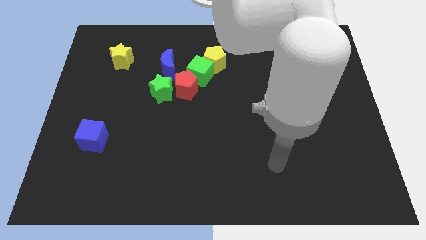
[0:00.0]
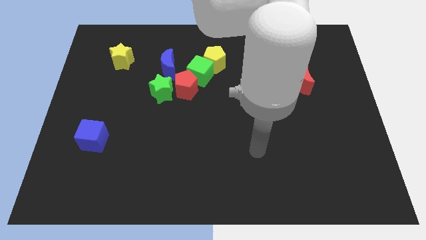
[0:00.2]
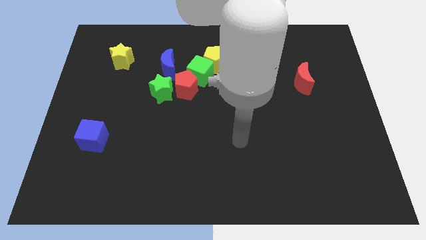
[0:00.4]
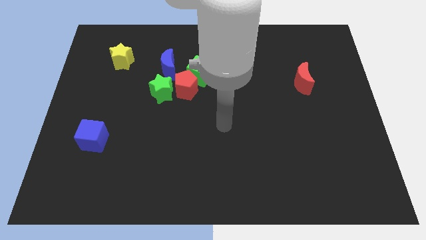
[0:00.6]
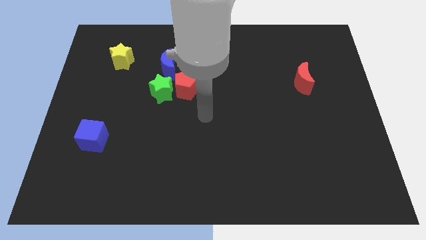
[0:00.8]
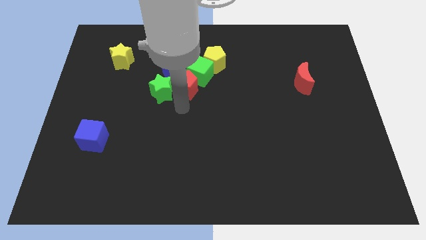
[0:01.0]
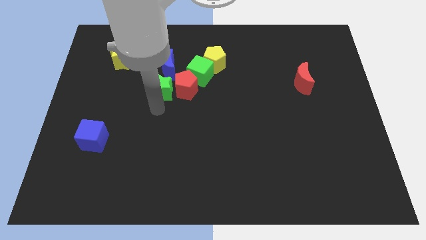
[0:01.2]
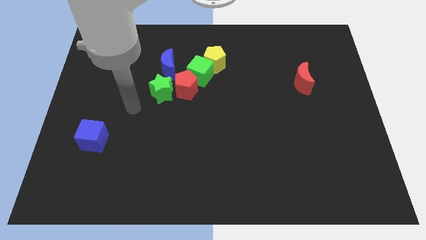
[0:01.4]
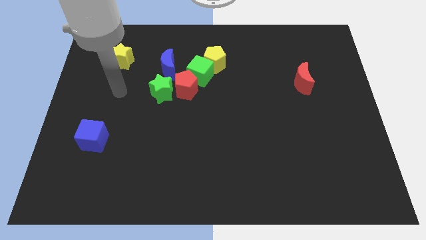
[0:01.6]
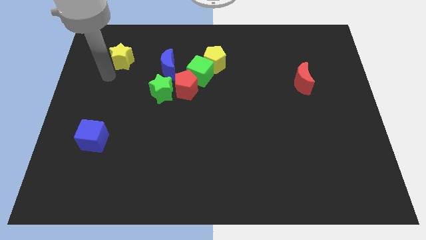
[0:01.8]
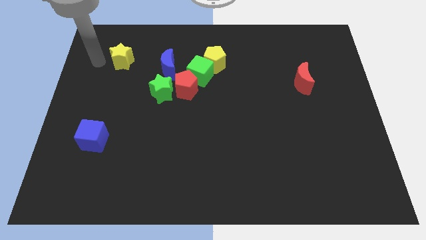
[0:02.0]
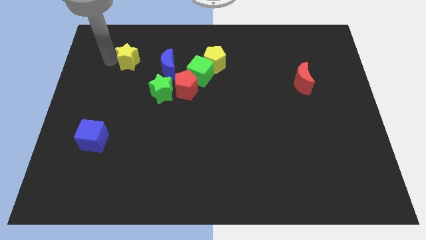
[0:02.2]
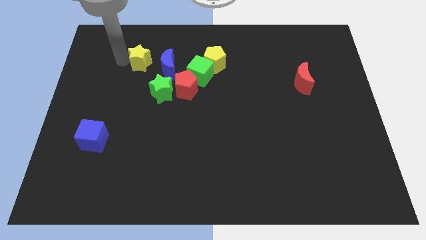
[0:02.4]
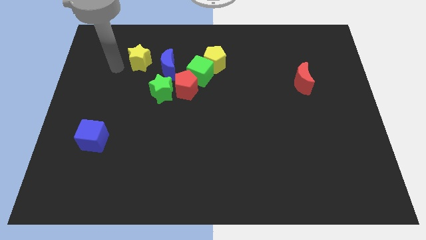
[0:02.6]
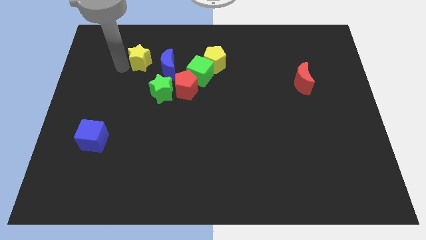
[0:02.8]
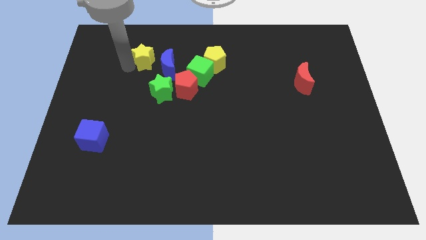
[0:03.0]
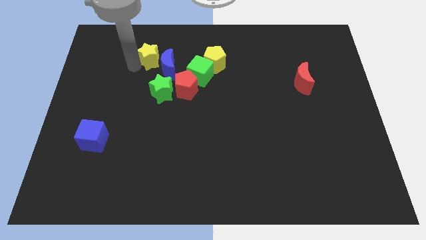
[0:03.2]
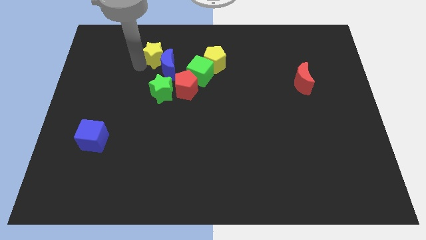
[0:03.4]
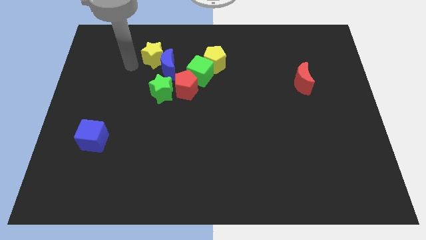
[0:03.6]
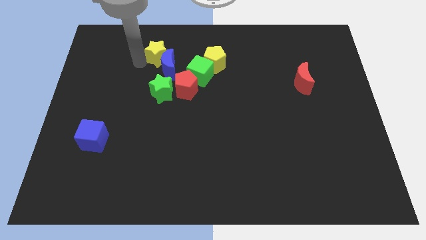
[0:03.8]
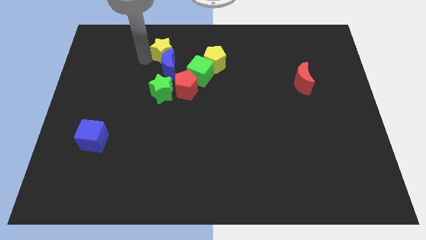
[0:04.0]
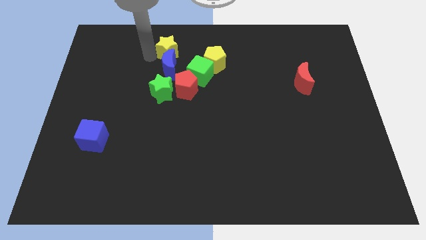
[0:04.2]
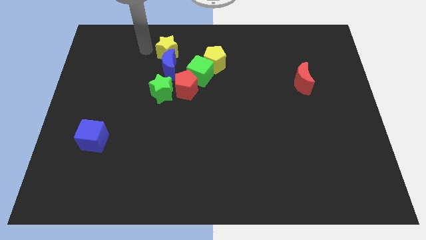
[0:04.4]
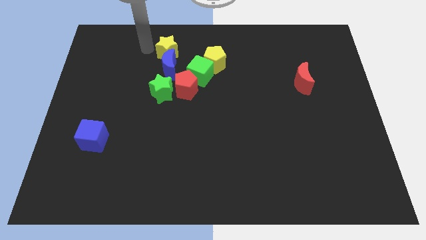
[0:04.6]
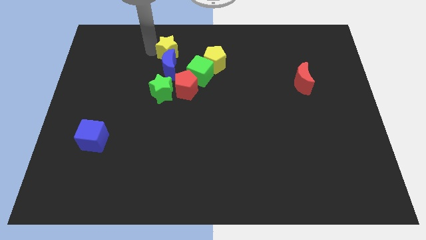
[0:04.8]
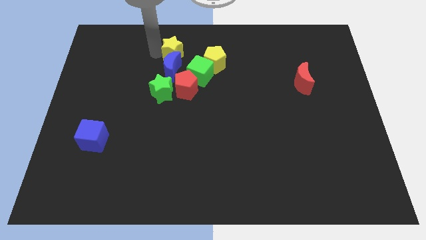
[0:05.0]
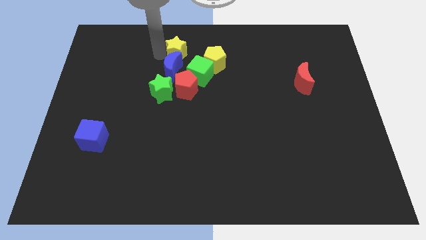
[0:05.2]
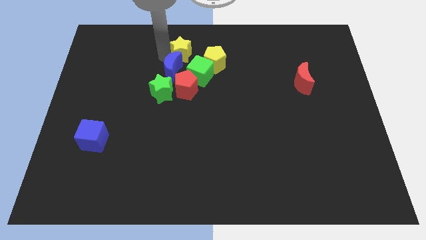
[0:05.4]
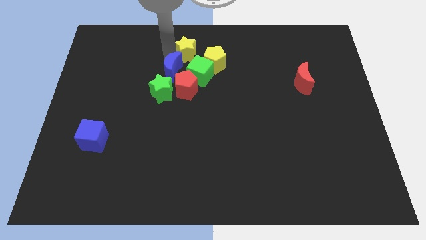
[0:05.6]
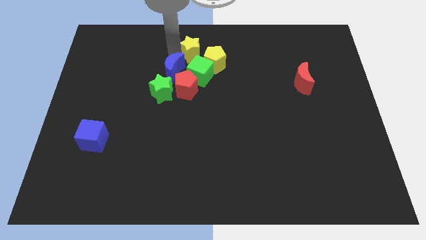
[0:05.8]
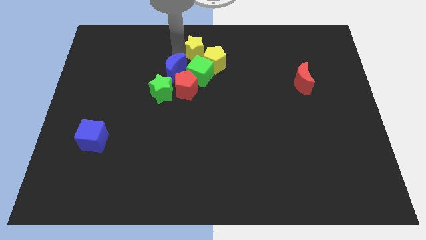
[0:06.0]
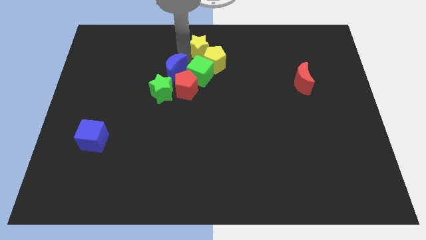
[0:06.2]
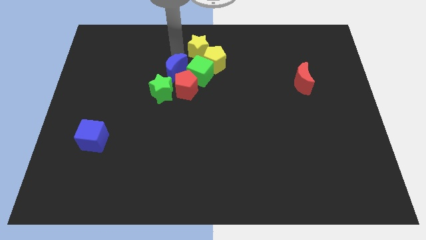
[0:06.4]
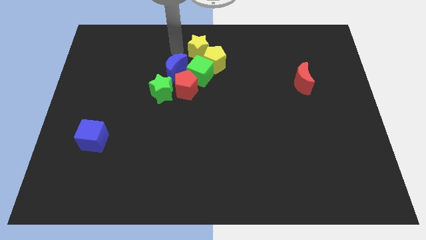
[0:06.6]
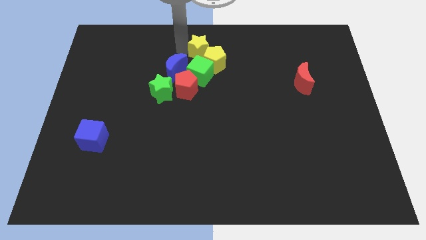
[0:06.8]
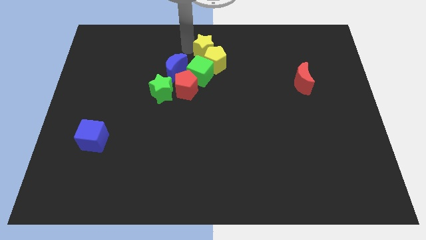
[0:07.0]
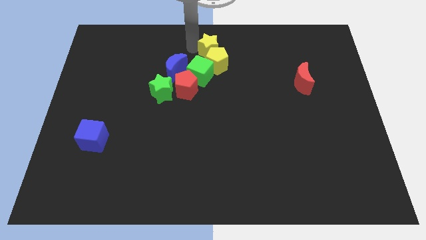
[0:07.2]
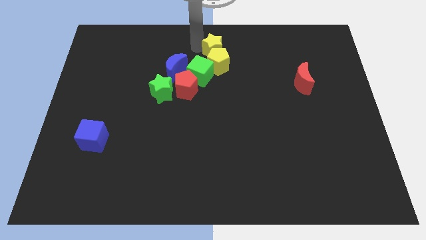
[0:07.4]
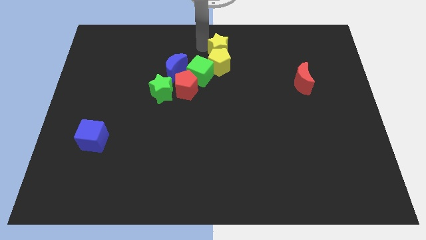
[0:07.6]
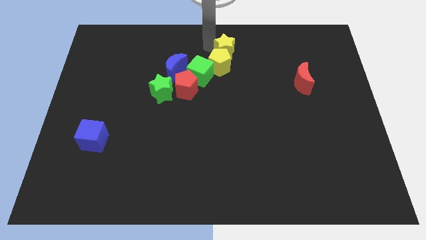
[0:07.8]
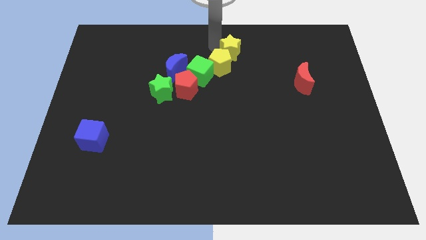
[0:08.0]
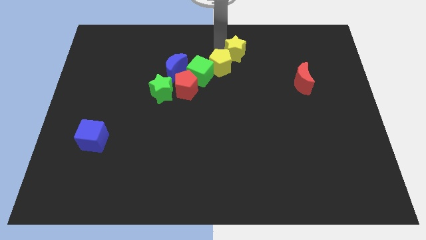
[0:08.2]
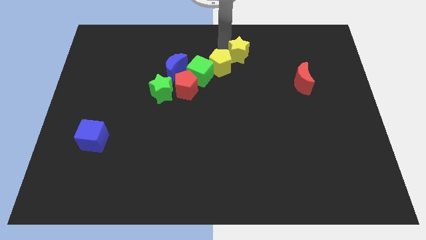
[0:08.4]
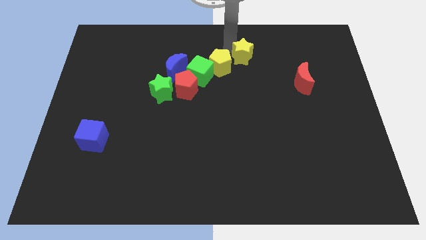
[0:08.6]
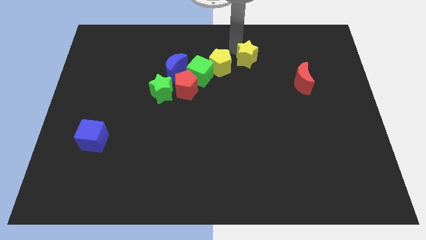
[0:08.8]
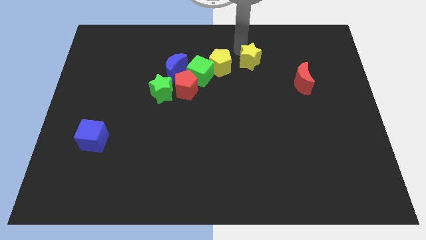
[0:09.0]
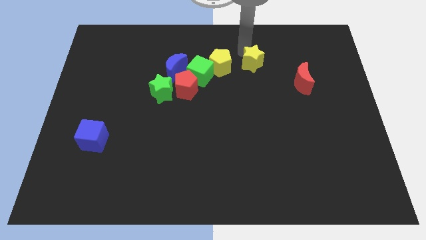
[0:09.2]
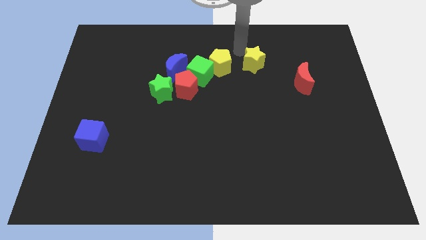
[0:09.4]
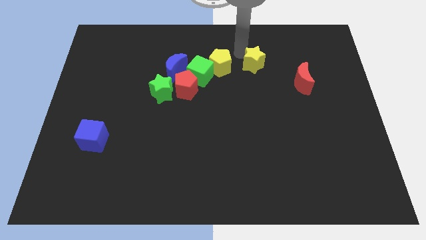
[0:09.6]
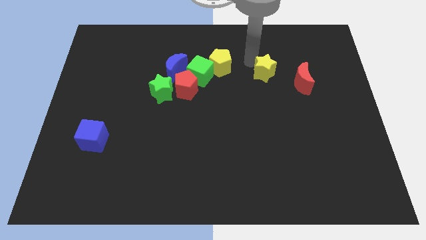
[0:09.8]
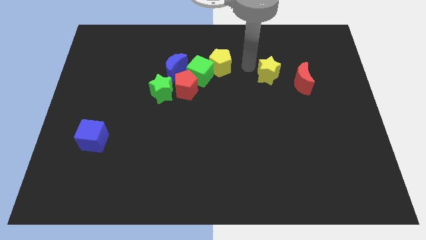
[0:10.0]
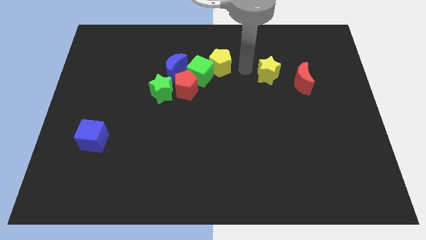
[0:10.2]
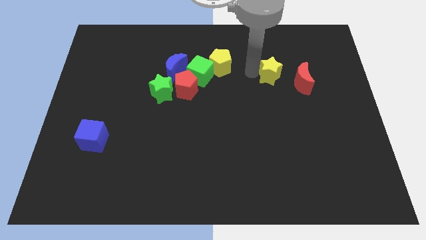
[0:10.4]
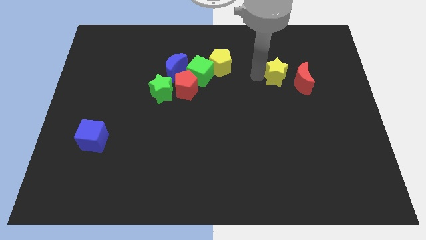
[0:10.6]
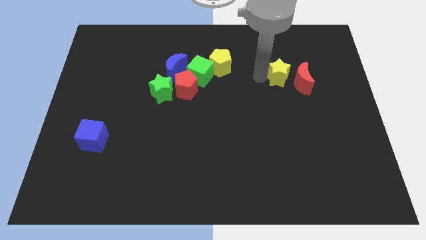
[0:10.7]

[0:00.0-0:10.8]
move the yellow star towards the red moon

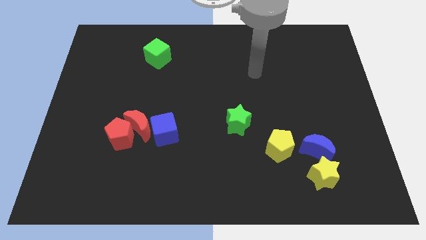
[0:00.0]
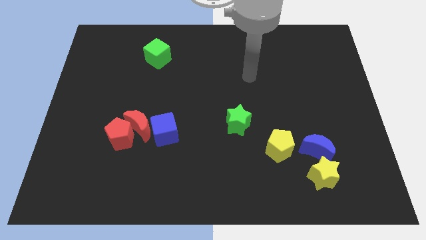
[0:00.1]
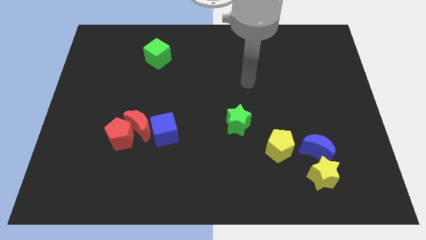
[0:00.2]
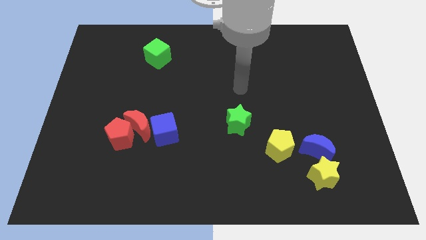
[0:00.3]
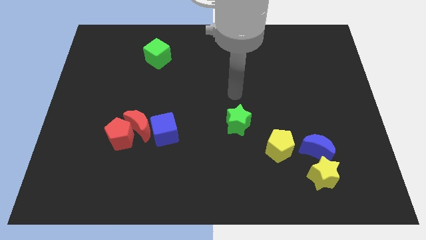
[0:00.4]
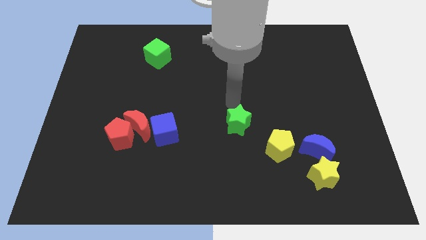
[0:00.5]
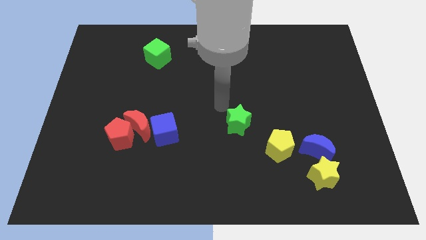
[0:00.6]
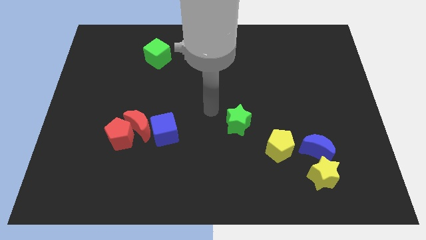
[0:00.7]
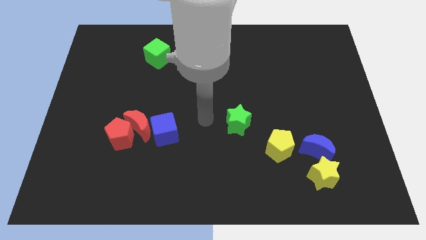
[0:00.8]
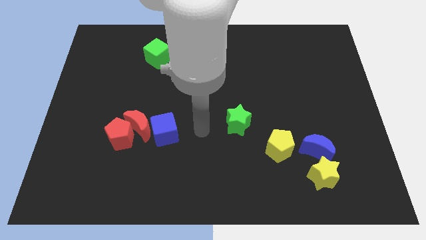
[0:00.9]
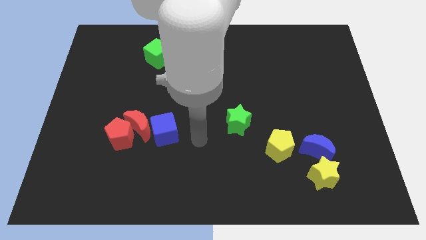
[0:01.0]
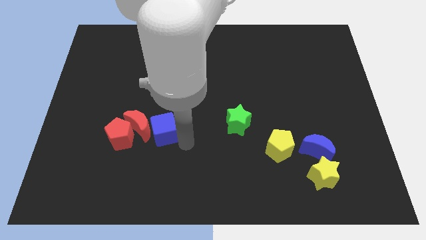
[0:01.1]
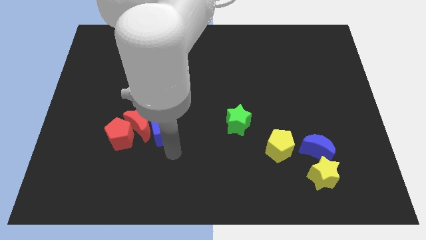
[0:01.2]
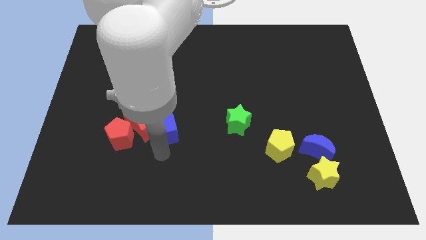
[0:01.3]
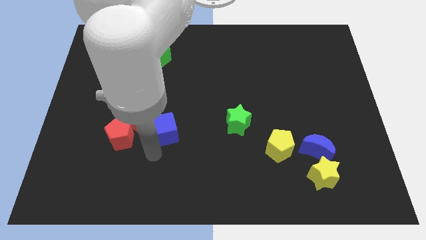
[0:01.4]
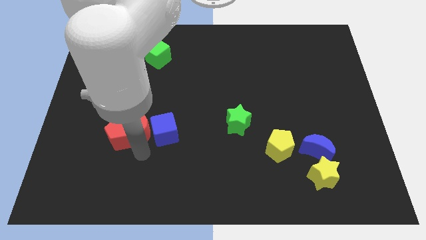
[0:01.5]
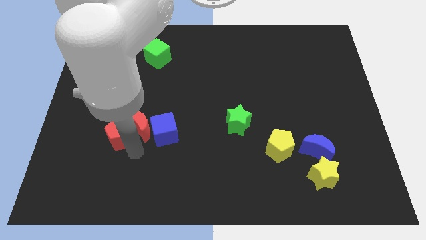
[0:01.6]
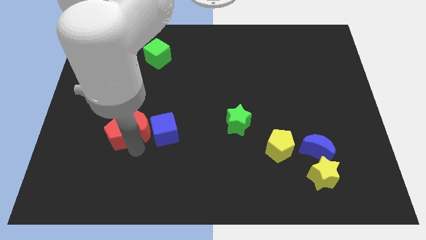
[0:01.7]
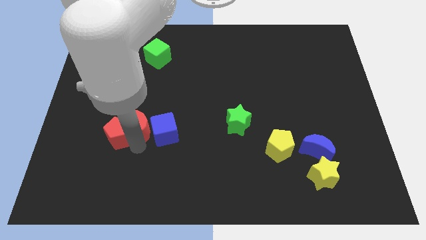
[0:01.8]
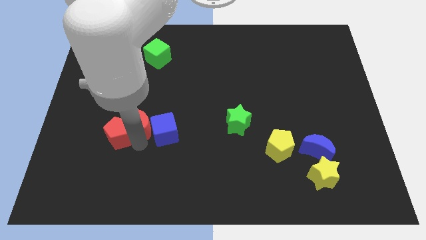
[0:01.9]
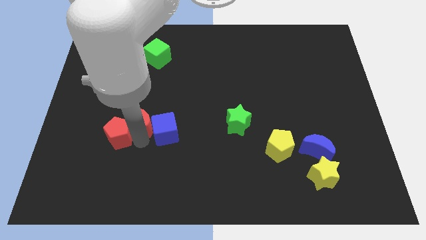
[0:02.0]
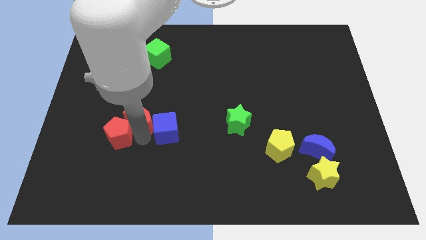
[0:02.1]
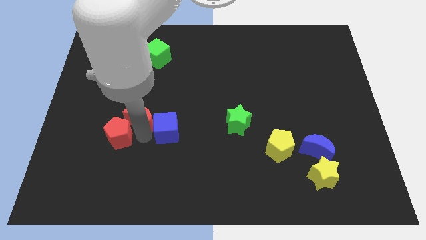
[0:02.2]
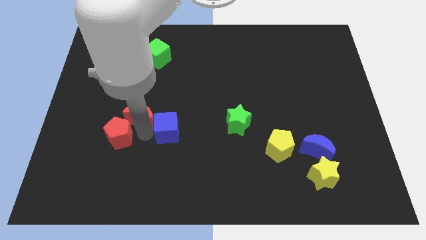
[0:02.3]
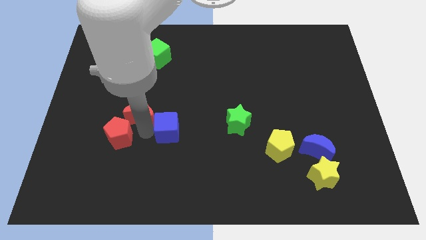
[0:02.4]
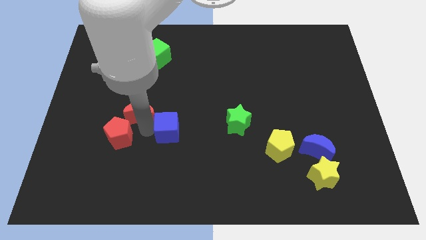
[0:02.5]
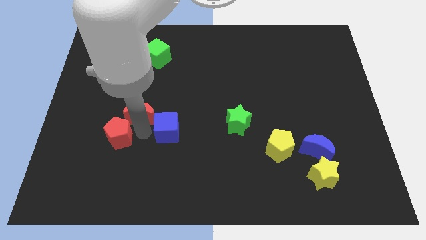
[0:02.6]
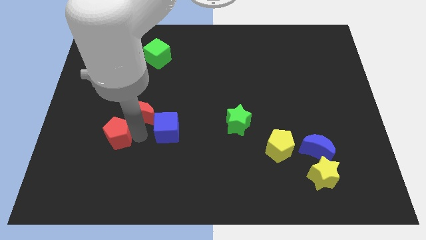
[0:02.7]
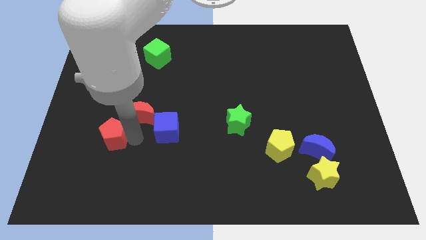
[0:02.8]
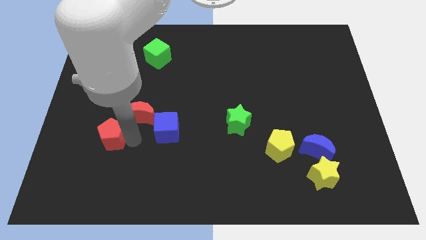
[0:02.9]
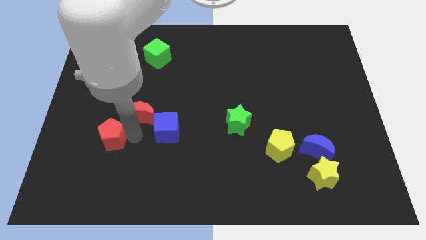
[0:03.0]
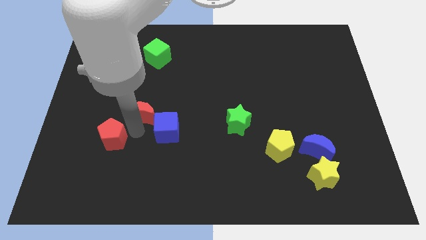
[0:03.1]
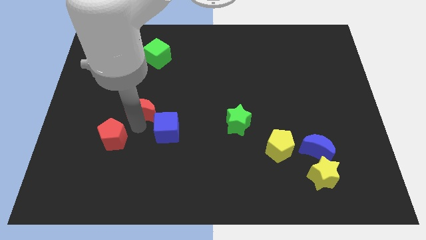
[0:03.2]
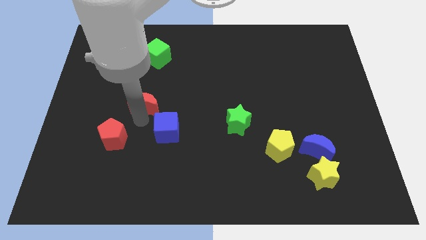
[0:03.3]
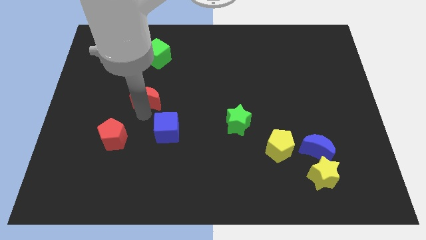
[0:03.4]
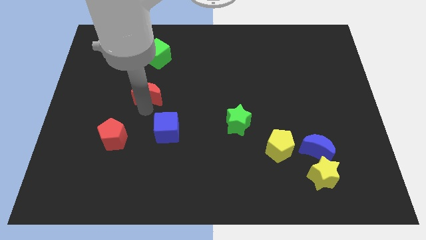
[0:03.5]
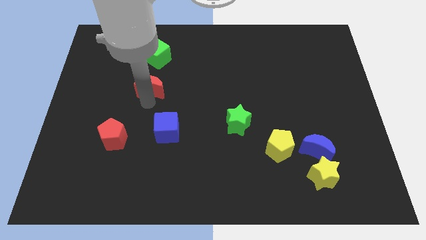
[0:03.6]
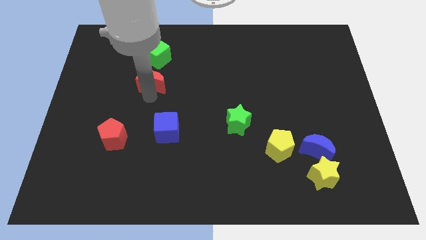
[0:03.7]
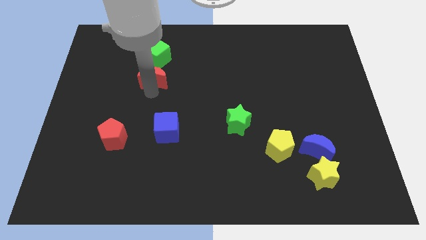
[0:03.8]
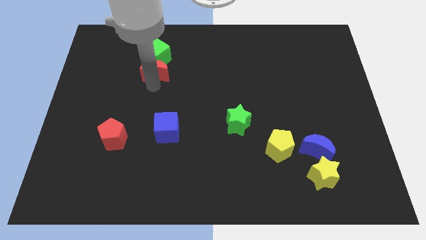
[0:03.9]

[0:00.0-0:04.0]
slide the red moon to the green cube
